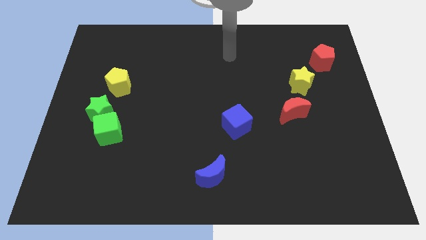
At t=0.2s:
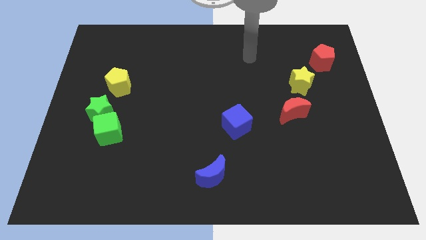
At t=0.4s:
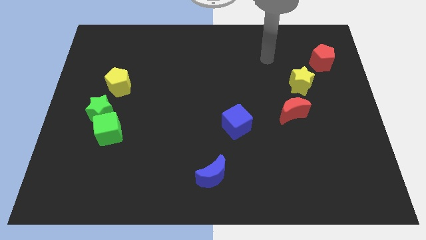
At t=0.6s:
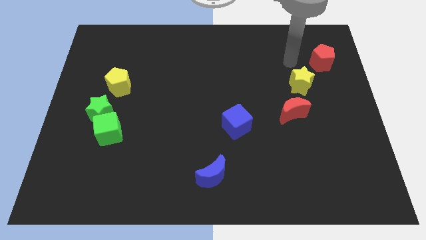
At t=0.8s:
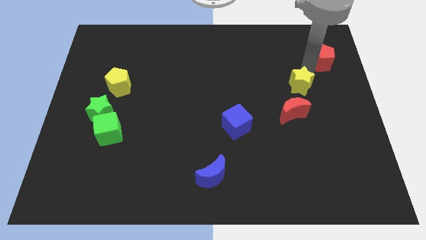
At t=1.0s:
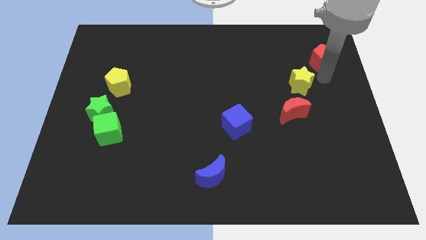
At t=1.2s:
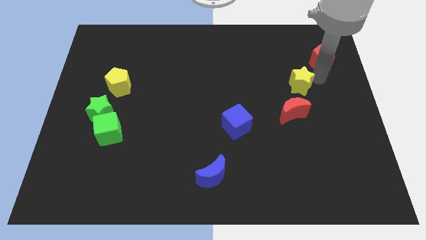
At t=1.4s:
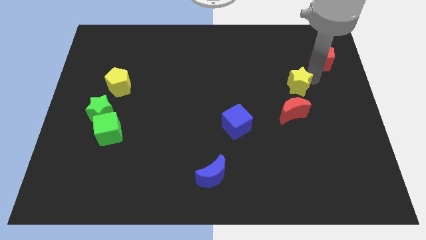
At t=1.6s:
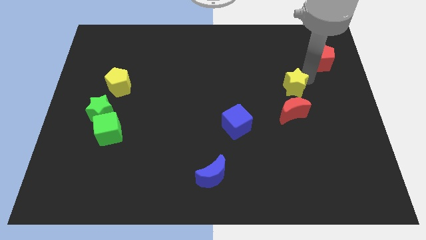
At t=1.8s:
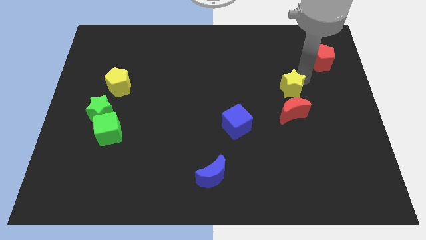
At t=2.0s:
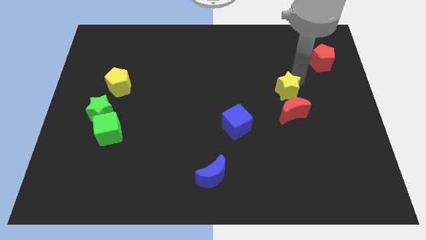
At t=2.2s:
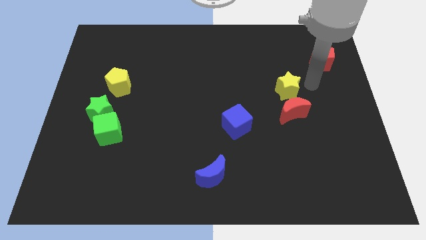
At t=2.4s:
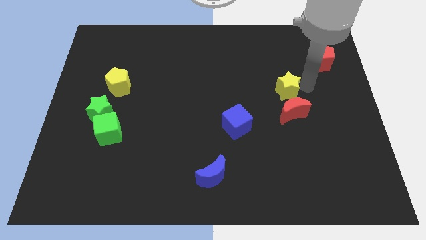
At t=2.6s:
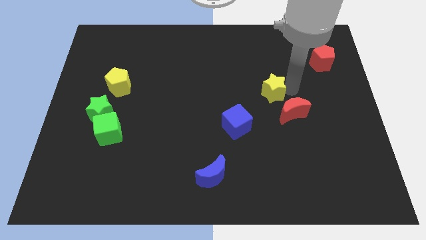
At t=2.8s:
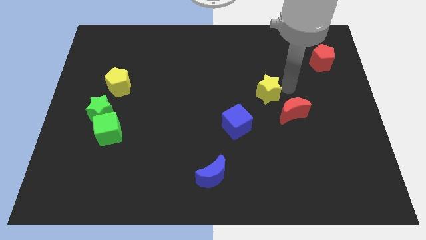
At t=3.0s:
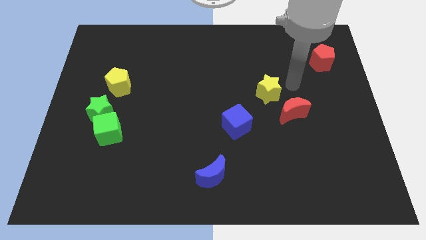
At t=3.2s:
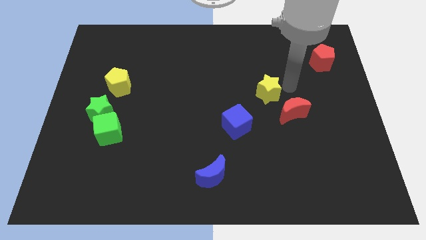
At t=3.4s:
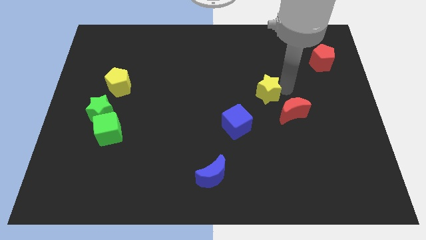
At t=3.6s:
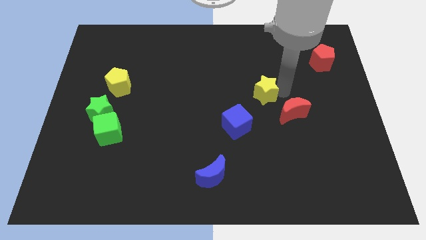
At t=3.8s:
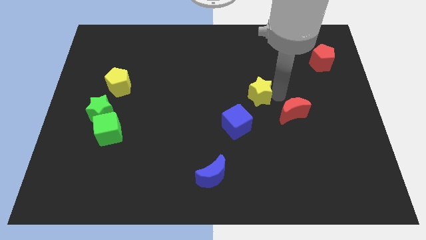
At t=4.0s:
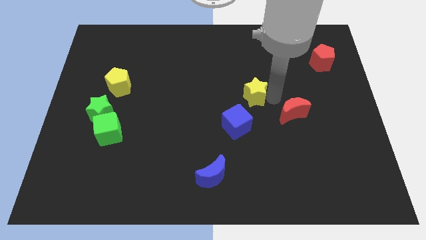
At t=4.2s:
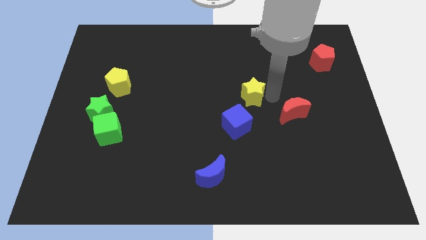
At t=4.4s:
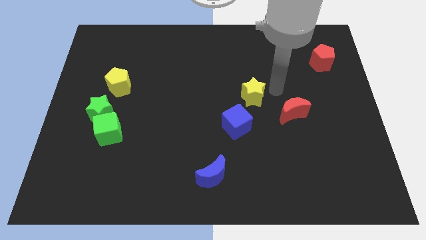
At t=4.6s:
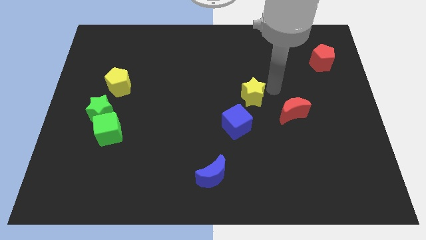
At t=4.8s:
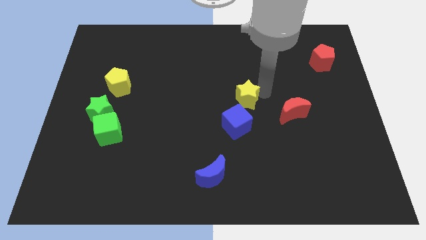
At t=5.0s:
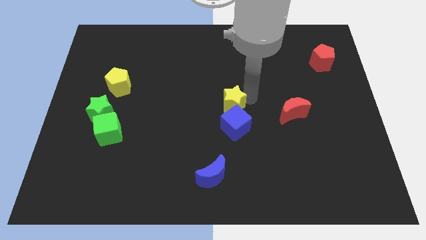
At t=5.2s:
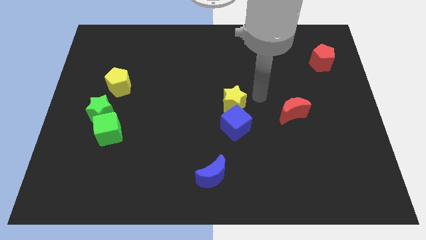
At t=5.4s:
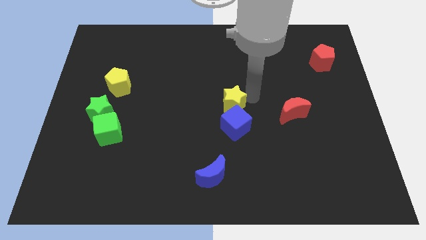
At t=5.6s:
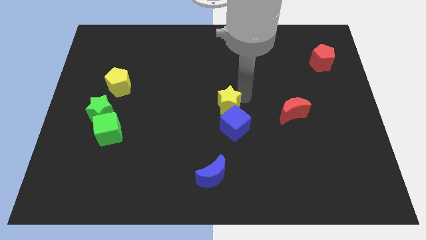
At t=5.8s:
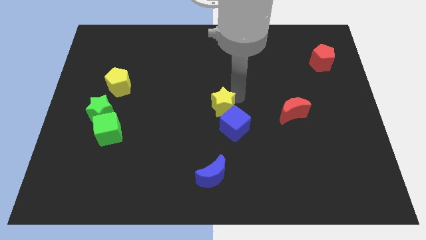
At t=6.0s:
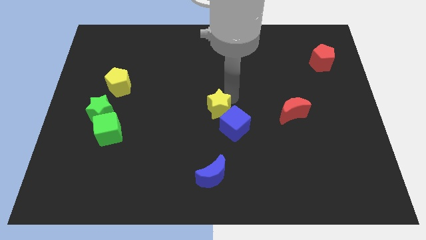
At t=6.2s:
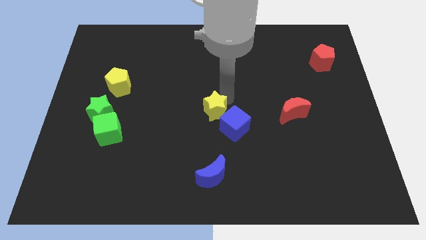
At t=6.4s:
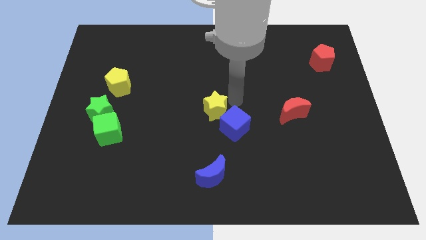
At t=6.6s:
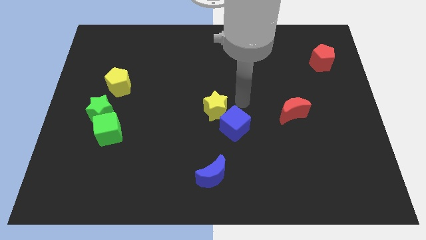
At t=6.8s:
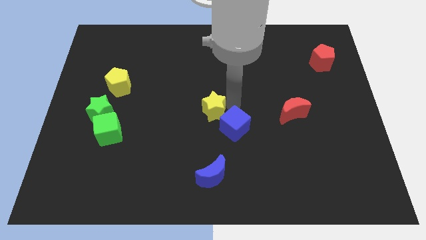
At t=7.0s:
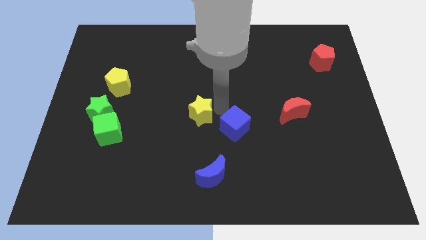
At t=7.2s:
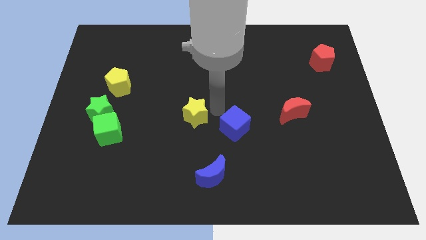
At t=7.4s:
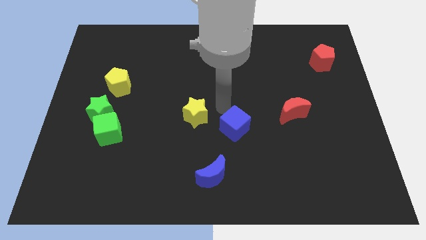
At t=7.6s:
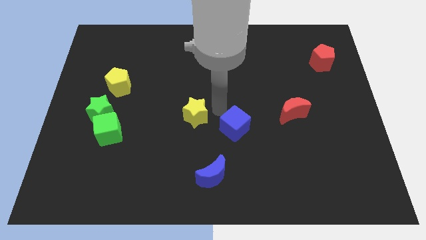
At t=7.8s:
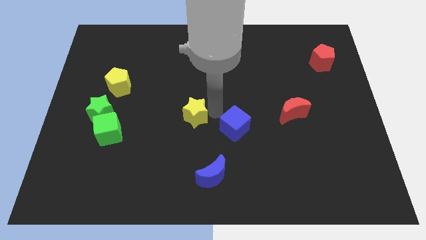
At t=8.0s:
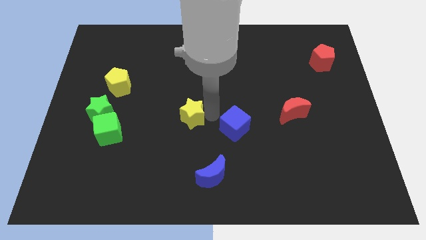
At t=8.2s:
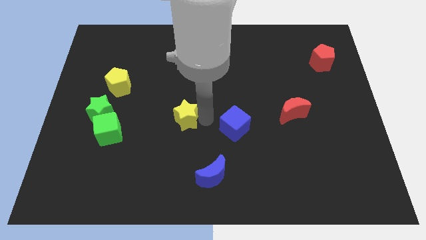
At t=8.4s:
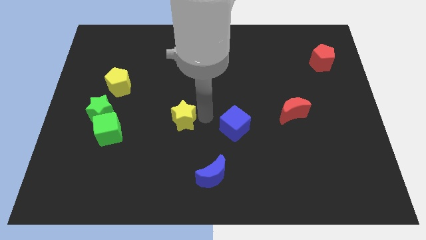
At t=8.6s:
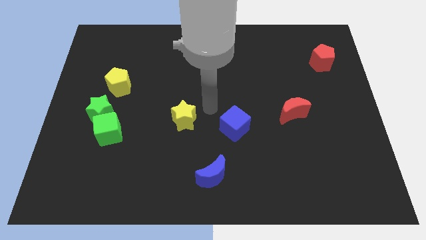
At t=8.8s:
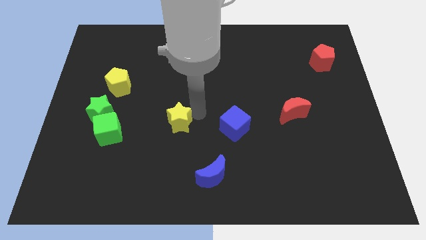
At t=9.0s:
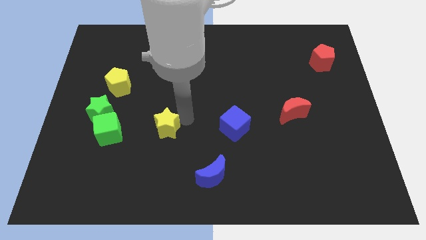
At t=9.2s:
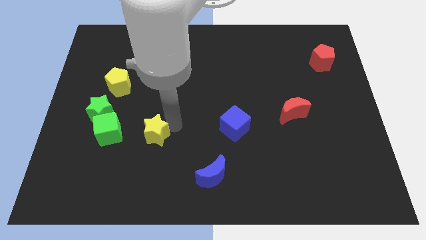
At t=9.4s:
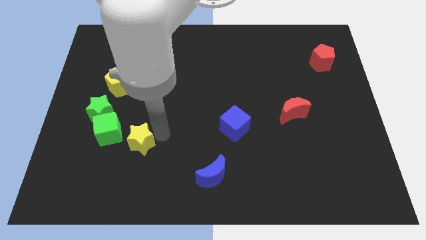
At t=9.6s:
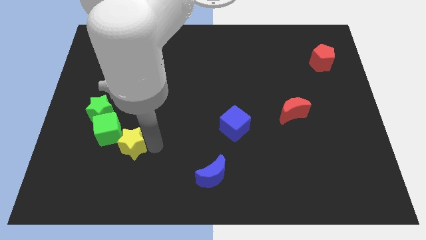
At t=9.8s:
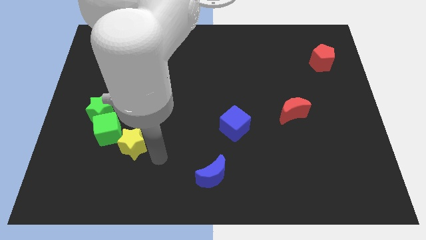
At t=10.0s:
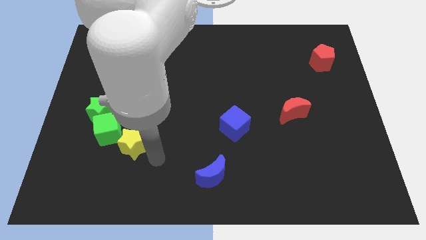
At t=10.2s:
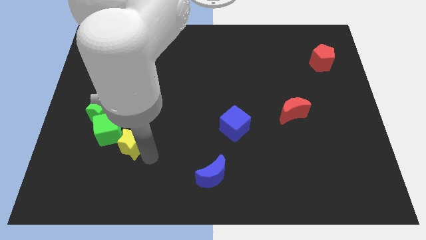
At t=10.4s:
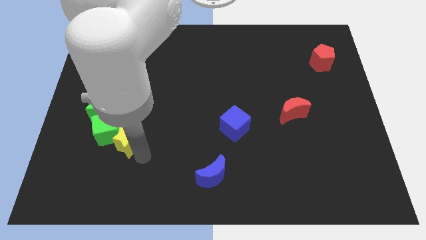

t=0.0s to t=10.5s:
put the yellow star next to the green cube
